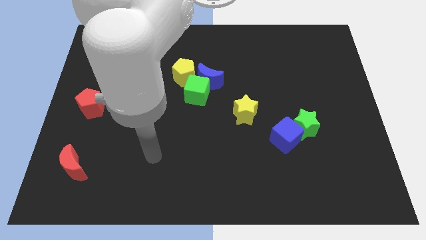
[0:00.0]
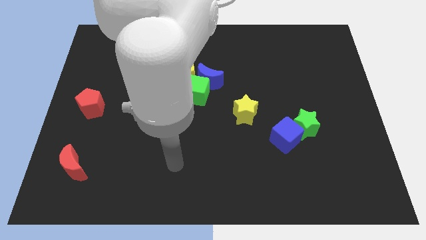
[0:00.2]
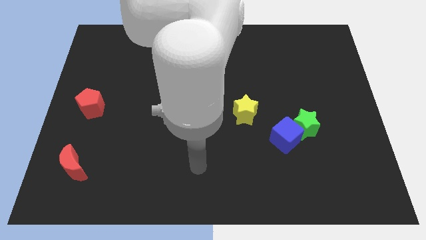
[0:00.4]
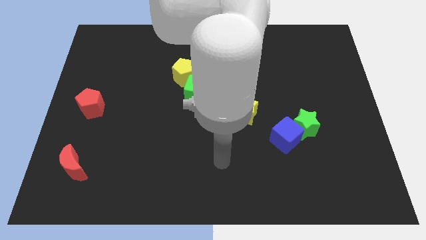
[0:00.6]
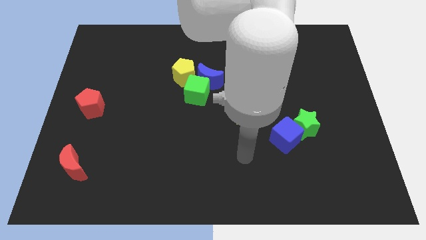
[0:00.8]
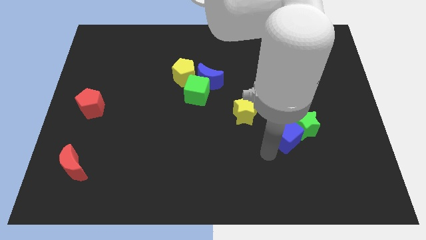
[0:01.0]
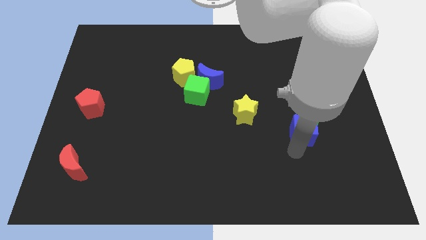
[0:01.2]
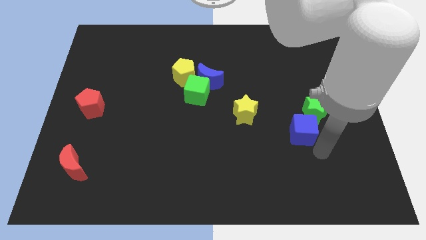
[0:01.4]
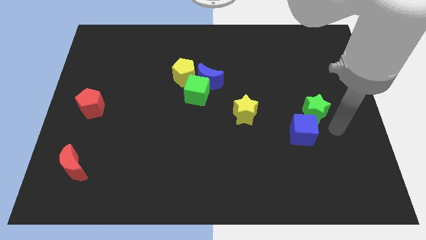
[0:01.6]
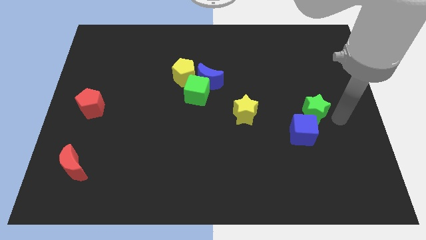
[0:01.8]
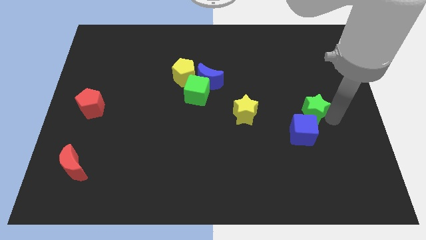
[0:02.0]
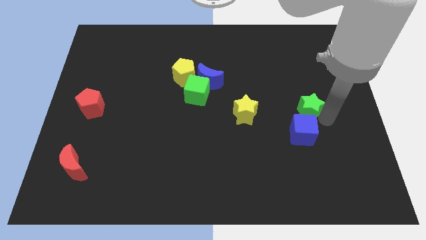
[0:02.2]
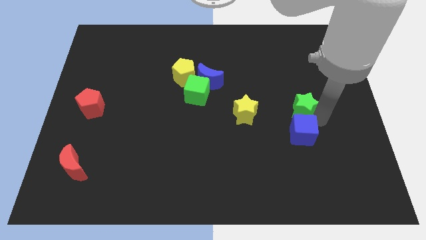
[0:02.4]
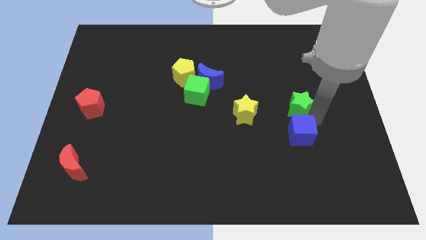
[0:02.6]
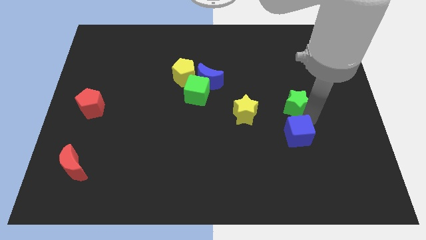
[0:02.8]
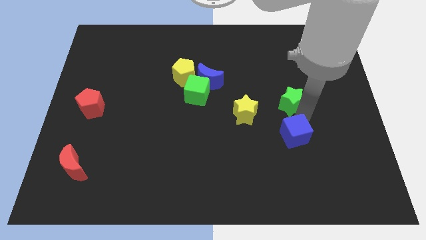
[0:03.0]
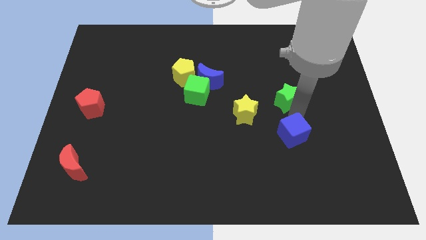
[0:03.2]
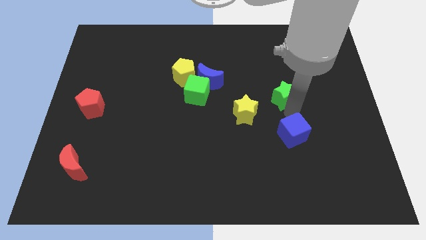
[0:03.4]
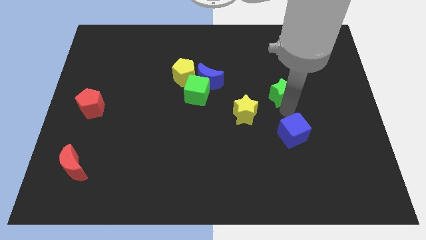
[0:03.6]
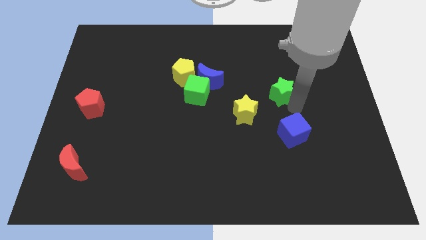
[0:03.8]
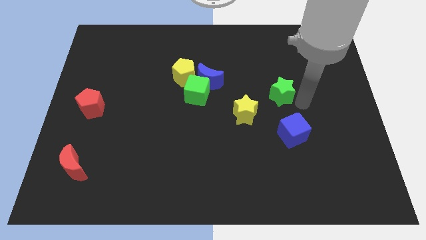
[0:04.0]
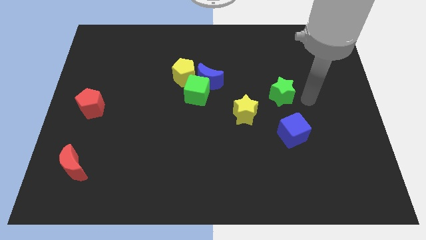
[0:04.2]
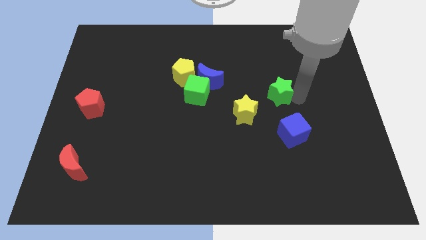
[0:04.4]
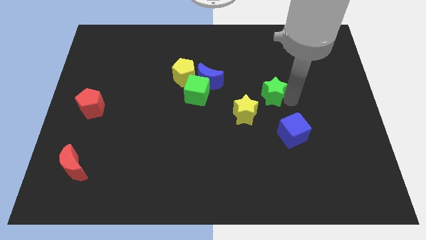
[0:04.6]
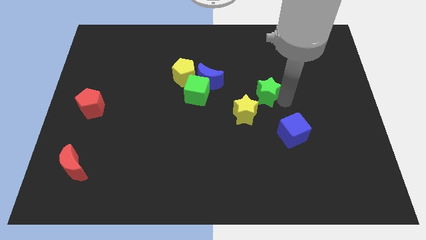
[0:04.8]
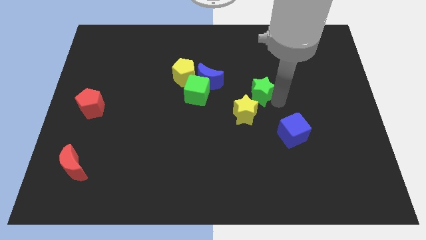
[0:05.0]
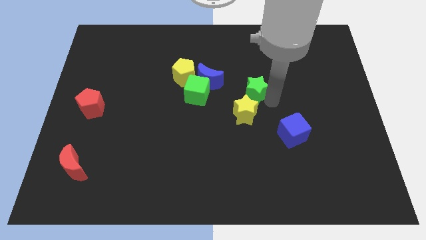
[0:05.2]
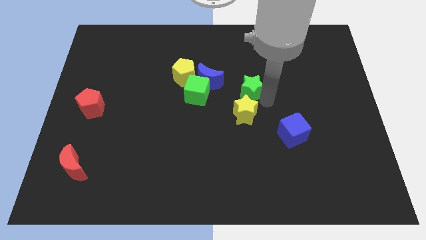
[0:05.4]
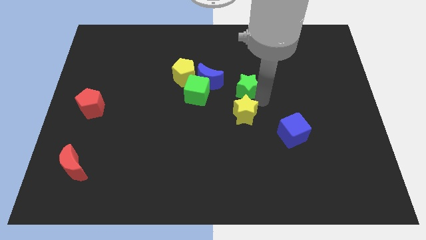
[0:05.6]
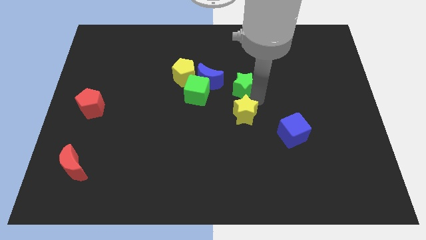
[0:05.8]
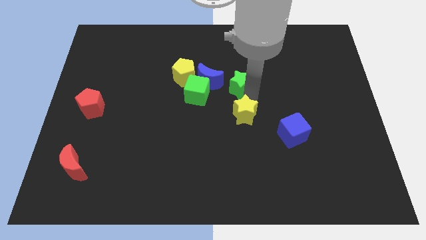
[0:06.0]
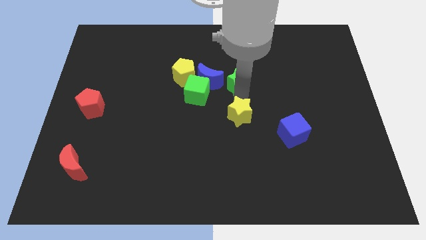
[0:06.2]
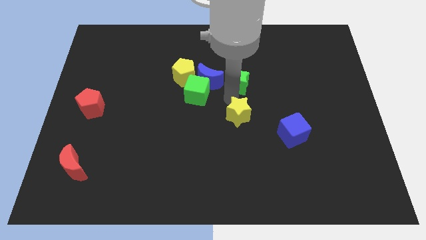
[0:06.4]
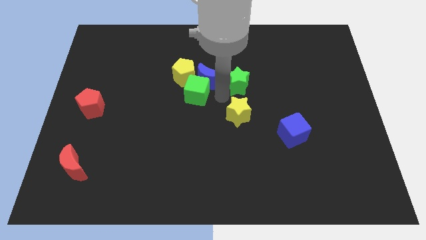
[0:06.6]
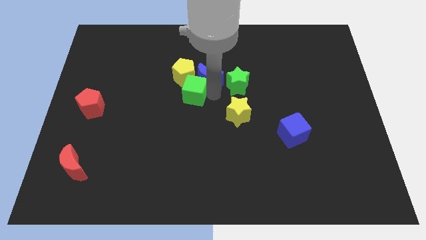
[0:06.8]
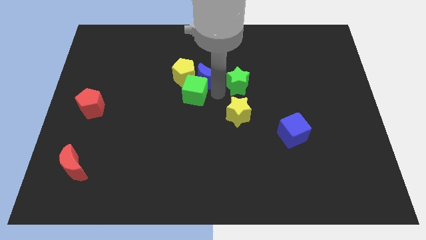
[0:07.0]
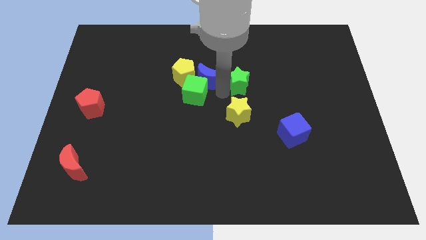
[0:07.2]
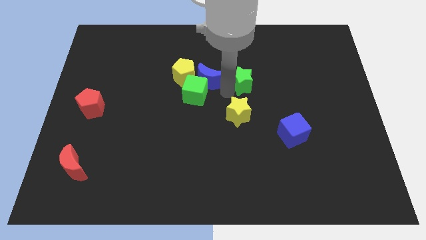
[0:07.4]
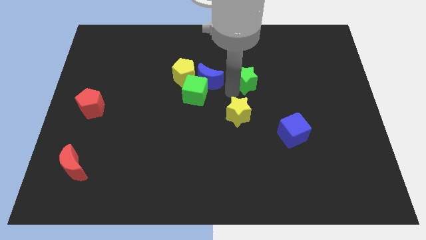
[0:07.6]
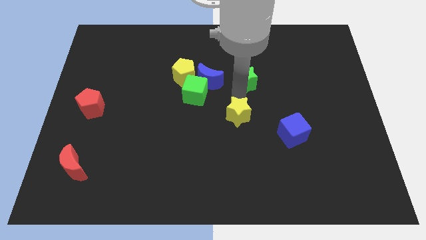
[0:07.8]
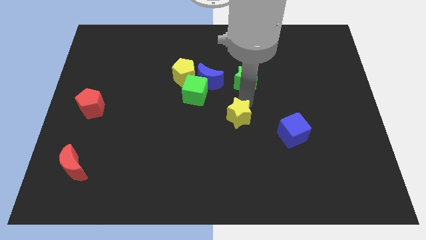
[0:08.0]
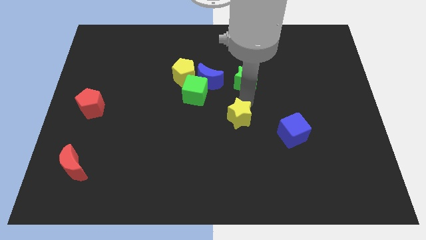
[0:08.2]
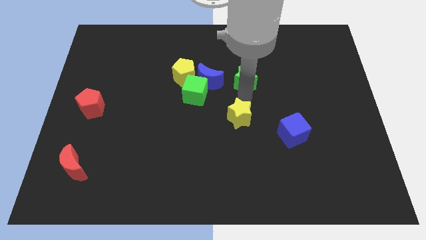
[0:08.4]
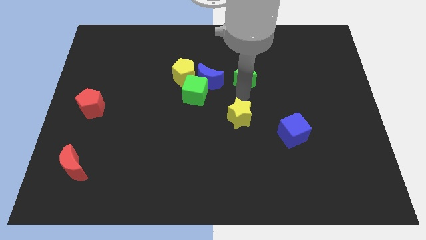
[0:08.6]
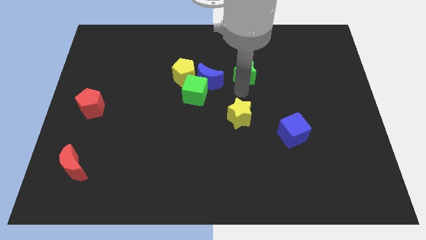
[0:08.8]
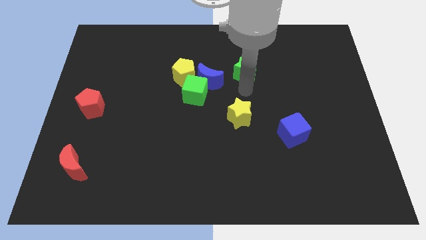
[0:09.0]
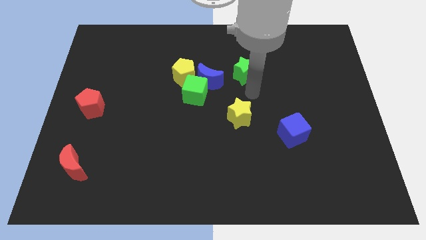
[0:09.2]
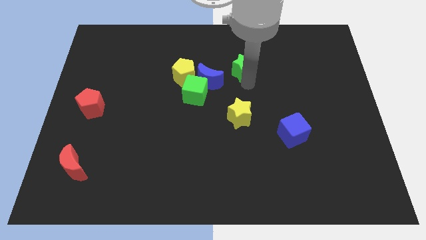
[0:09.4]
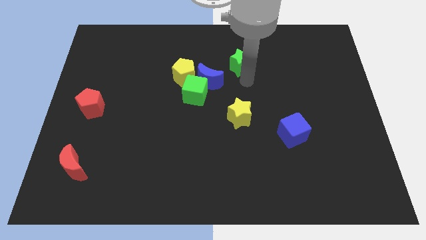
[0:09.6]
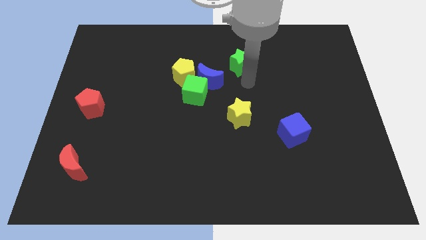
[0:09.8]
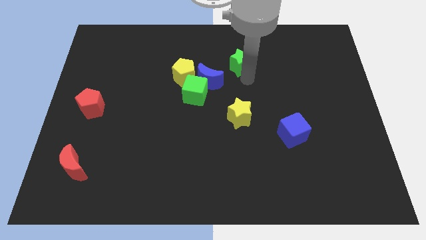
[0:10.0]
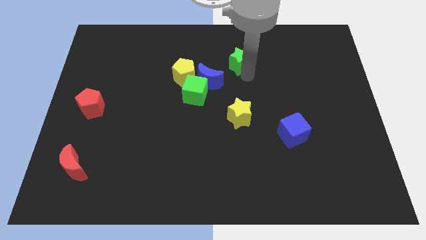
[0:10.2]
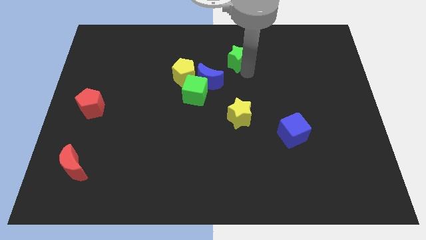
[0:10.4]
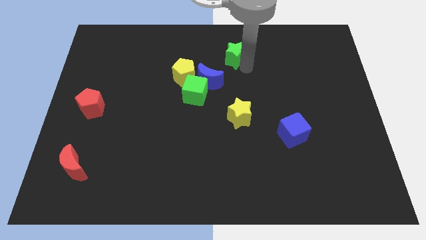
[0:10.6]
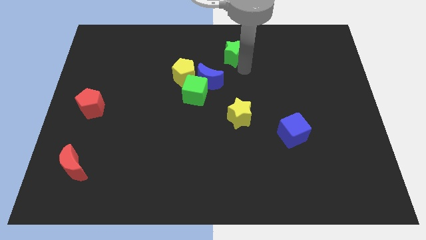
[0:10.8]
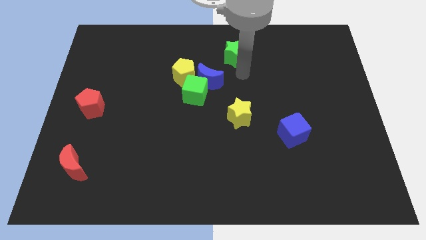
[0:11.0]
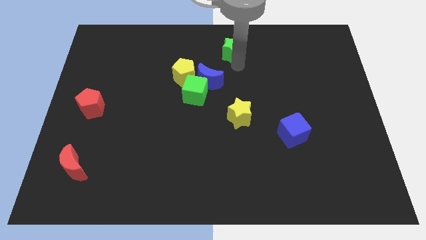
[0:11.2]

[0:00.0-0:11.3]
put the green star to the towards your base

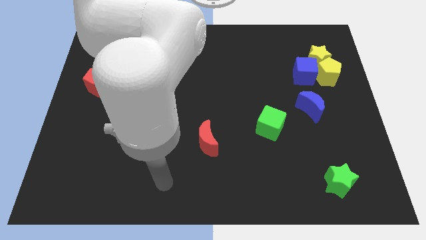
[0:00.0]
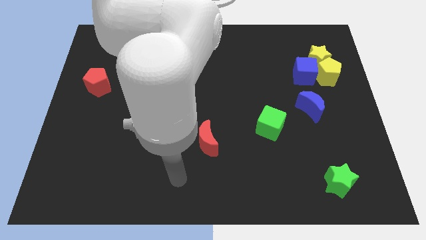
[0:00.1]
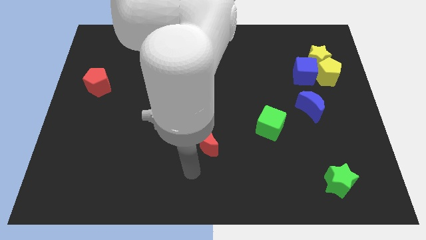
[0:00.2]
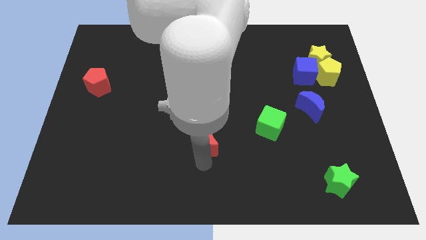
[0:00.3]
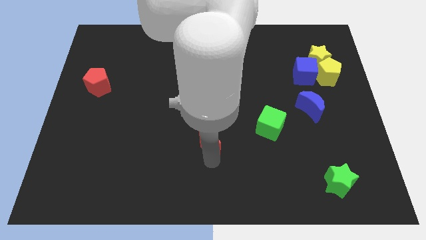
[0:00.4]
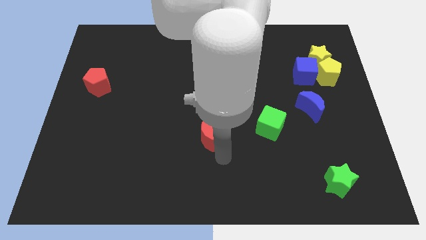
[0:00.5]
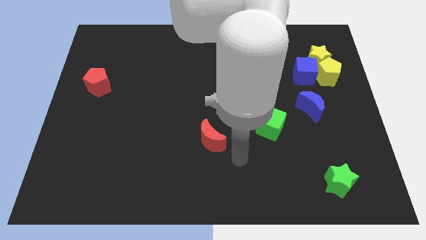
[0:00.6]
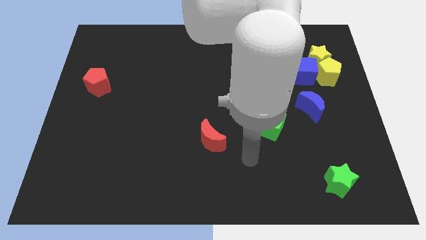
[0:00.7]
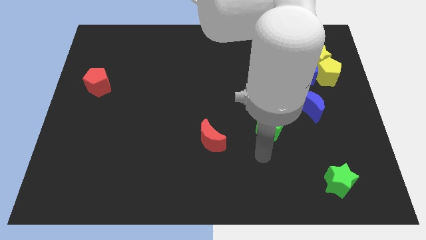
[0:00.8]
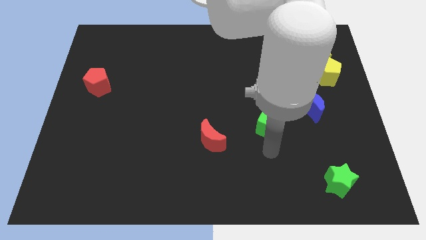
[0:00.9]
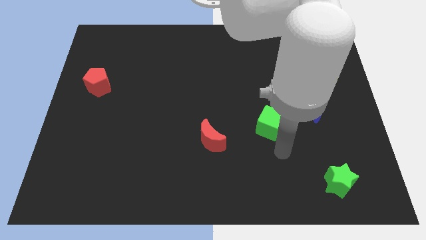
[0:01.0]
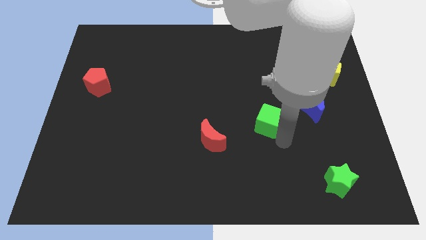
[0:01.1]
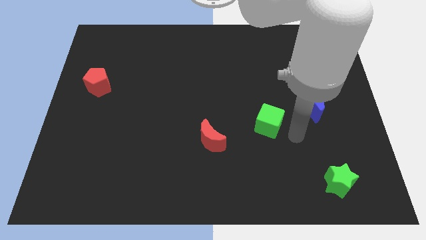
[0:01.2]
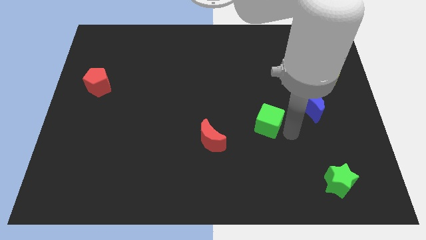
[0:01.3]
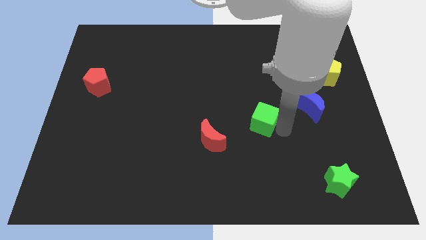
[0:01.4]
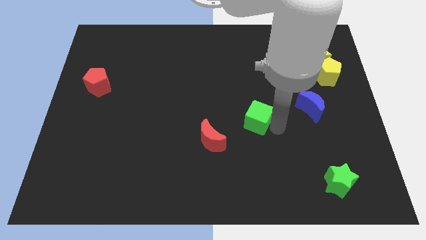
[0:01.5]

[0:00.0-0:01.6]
put the green cube to the center
